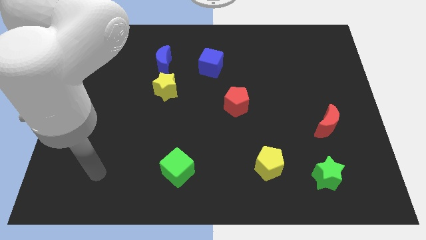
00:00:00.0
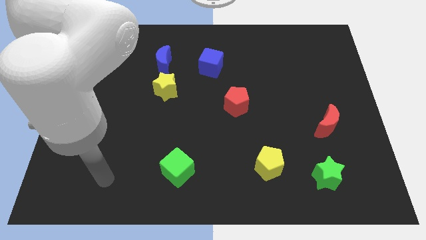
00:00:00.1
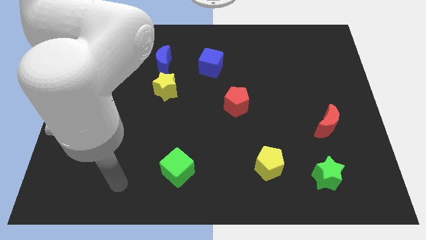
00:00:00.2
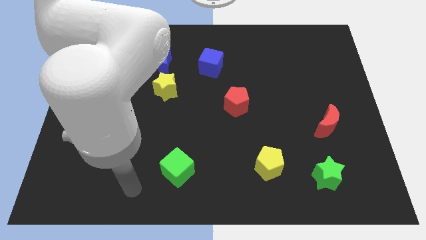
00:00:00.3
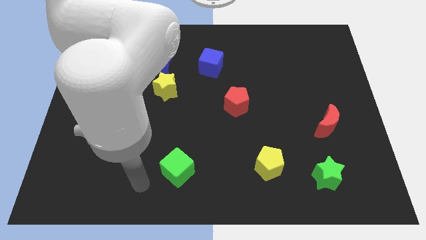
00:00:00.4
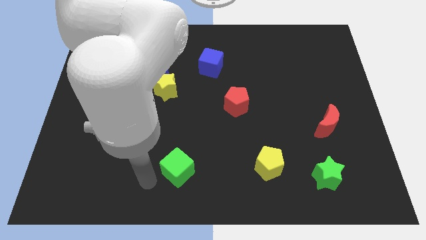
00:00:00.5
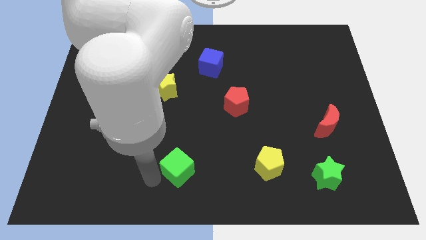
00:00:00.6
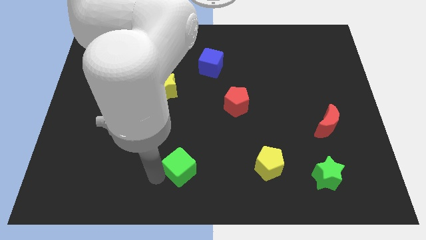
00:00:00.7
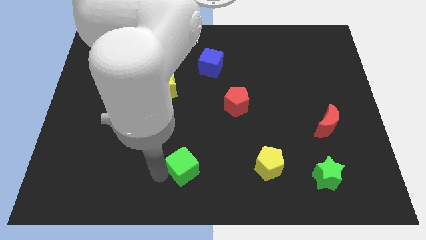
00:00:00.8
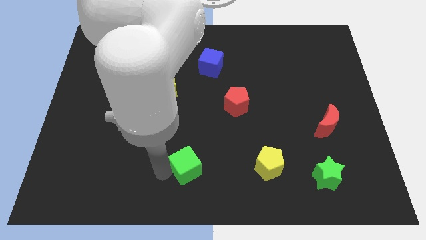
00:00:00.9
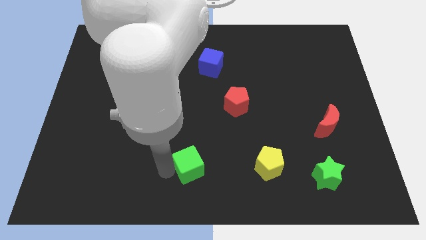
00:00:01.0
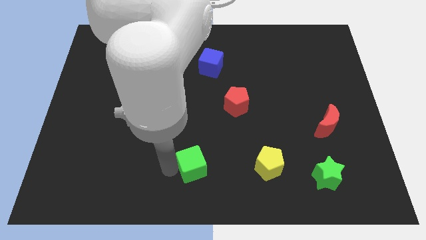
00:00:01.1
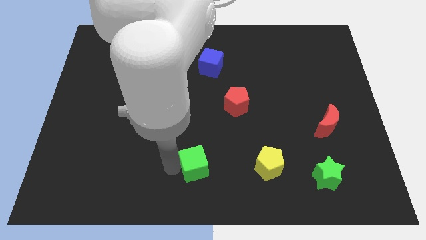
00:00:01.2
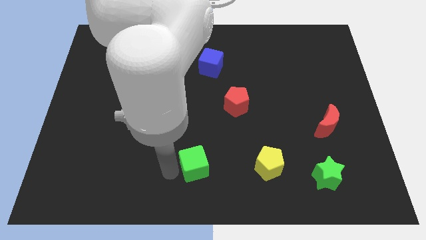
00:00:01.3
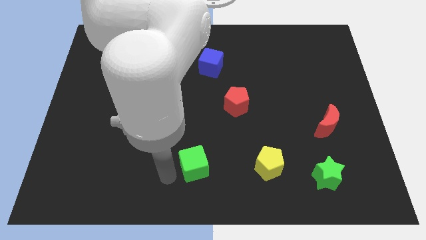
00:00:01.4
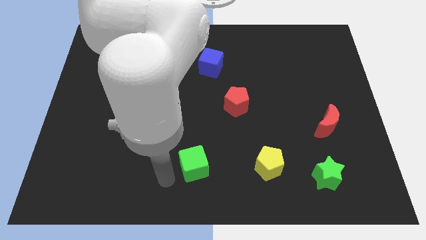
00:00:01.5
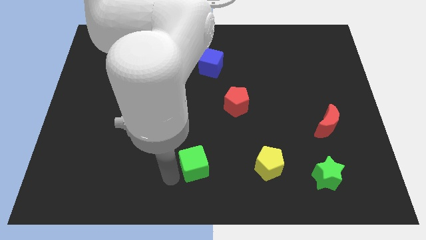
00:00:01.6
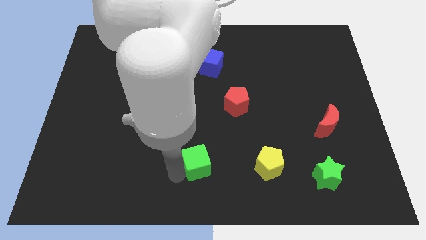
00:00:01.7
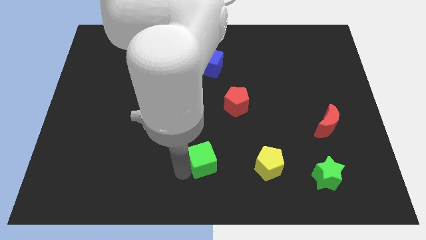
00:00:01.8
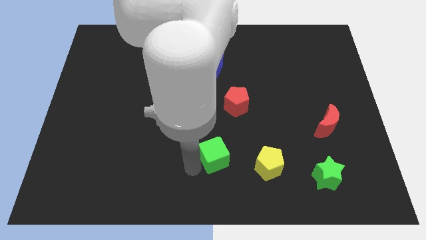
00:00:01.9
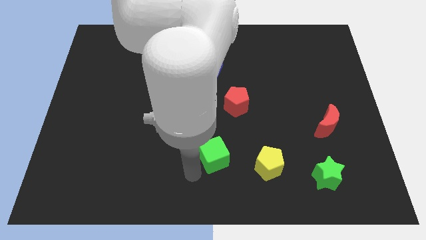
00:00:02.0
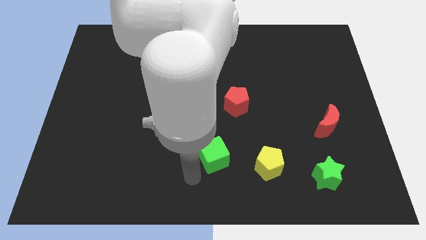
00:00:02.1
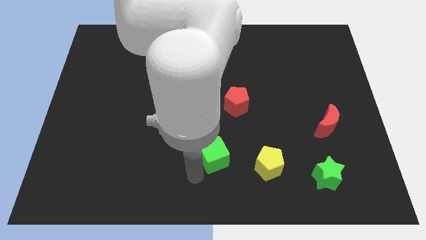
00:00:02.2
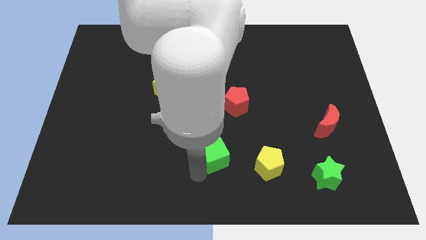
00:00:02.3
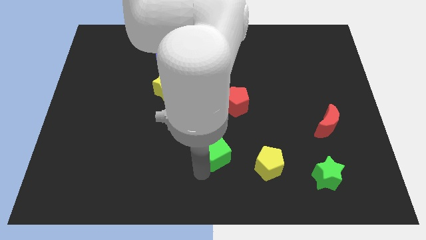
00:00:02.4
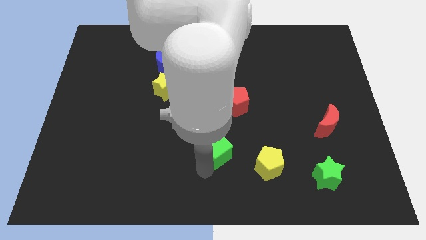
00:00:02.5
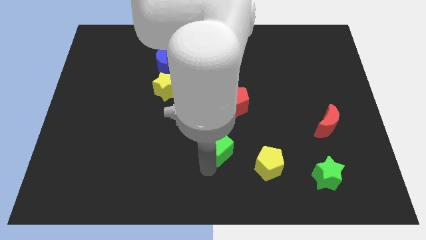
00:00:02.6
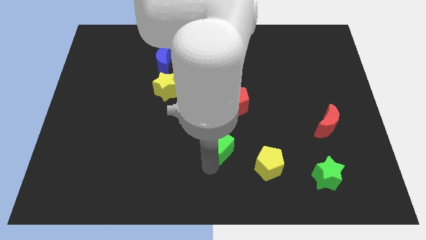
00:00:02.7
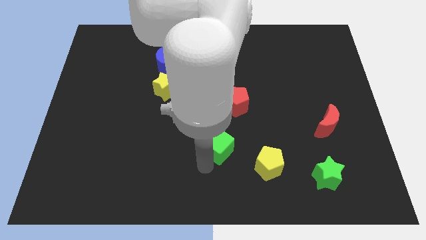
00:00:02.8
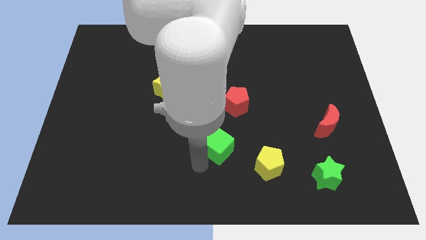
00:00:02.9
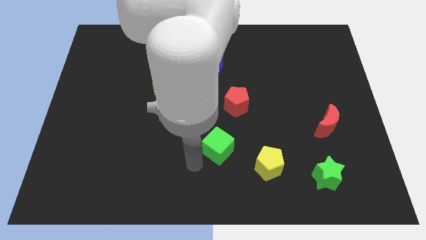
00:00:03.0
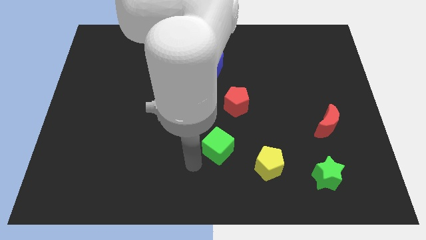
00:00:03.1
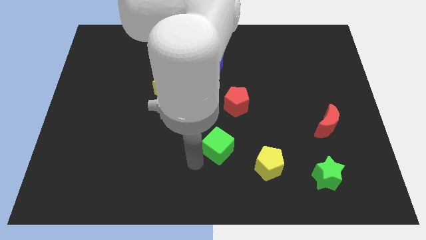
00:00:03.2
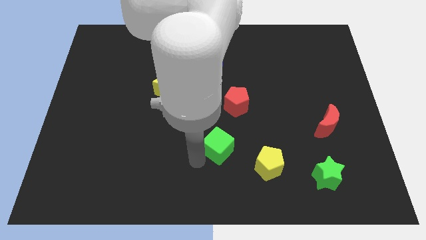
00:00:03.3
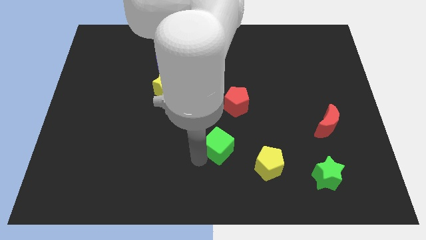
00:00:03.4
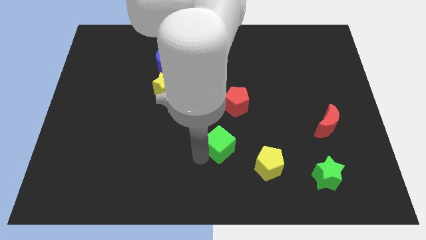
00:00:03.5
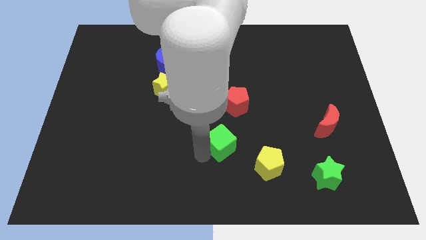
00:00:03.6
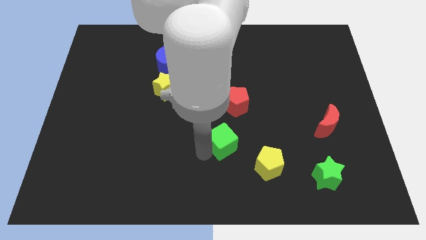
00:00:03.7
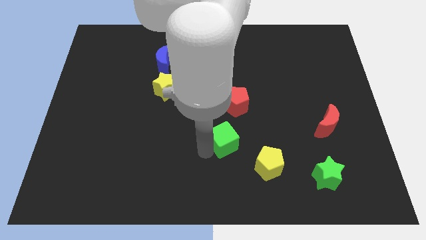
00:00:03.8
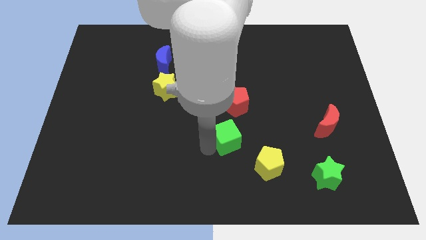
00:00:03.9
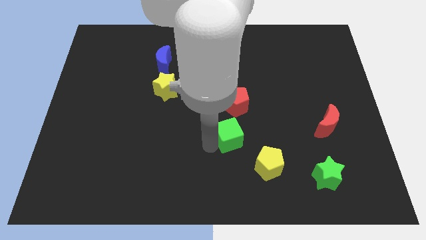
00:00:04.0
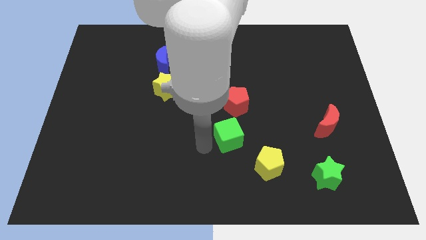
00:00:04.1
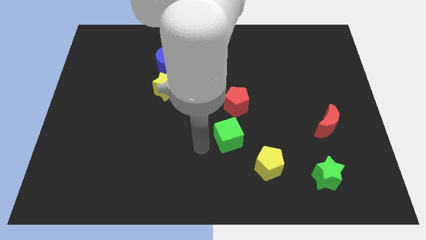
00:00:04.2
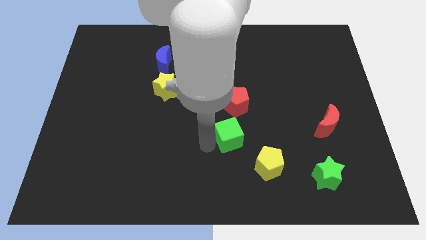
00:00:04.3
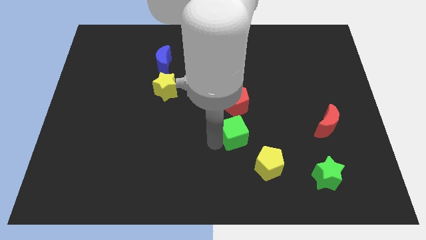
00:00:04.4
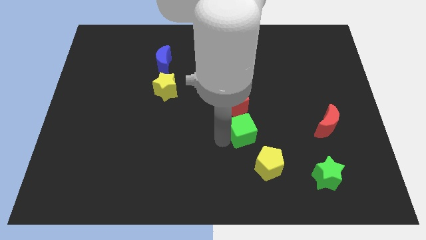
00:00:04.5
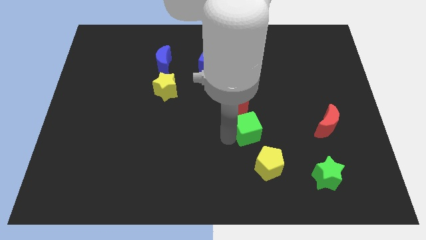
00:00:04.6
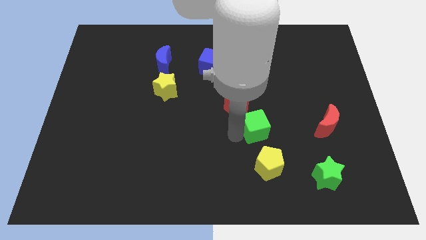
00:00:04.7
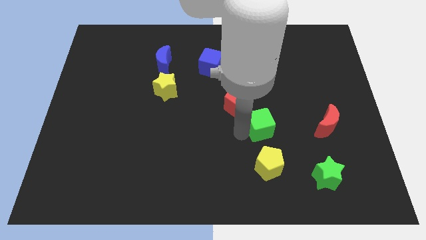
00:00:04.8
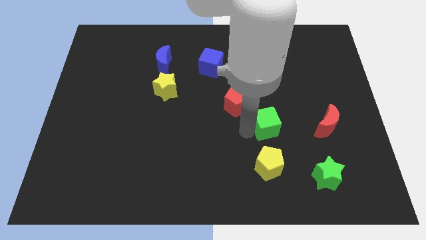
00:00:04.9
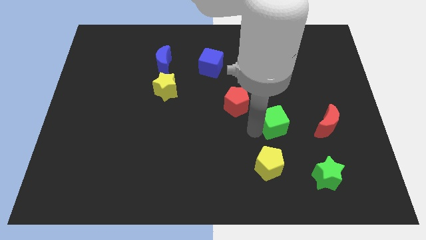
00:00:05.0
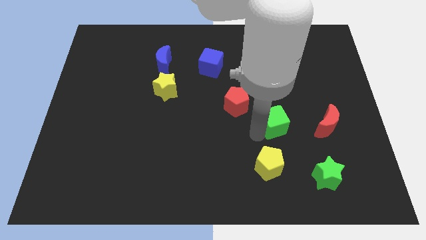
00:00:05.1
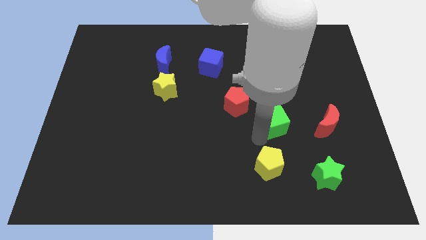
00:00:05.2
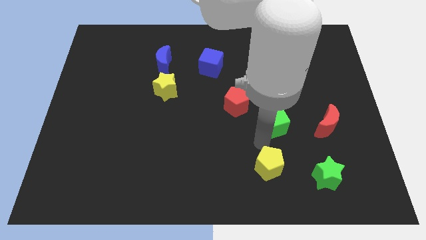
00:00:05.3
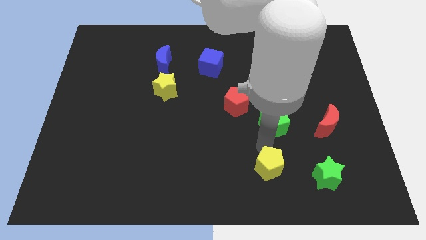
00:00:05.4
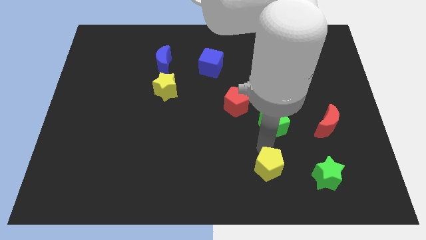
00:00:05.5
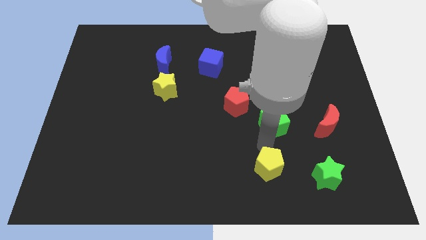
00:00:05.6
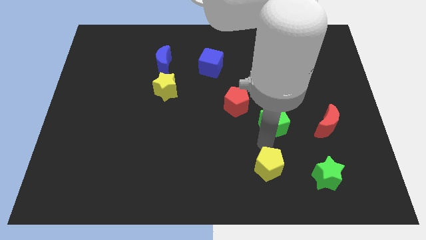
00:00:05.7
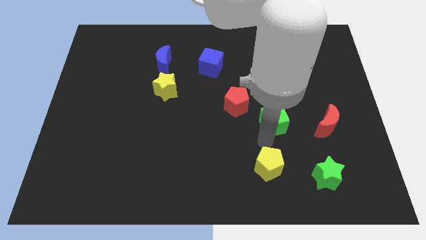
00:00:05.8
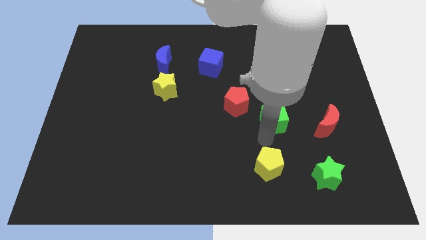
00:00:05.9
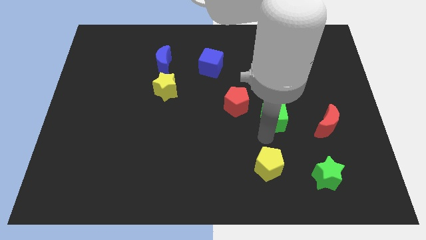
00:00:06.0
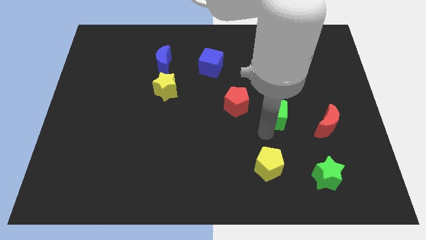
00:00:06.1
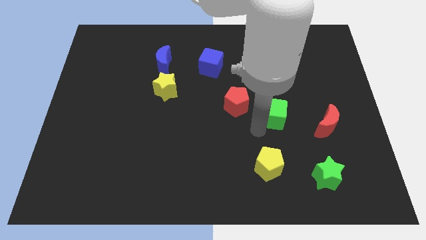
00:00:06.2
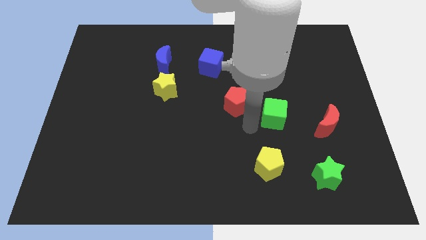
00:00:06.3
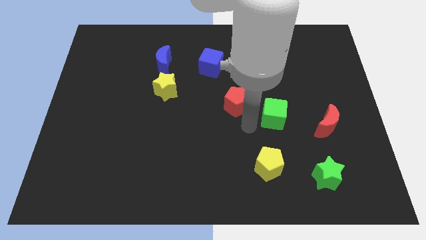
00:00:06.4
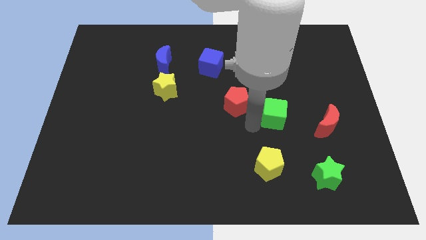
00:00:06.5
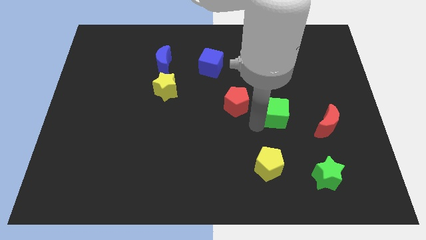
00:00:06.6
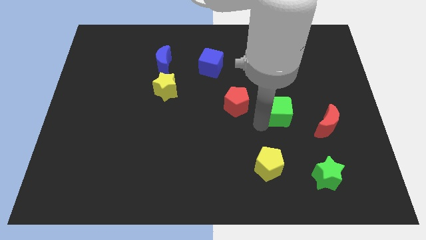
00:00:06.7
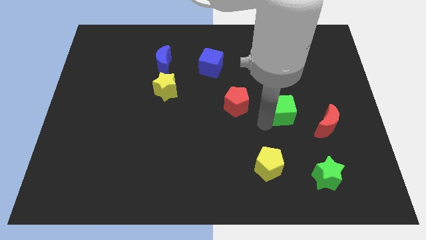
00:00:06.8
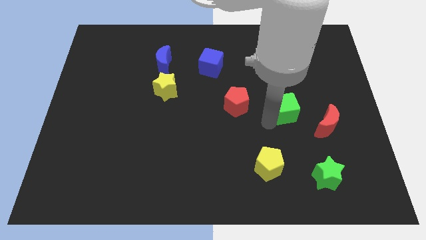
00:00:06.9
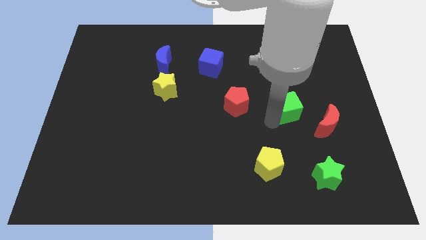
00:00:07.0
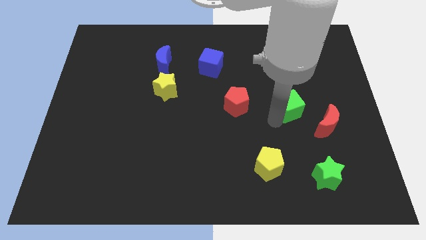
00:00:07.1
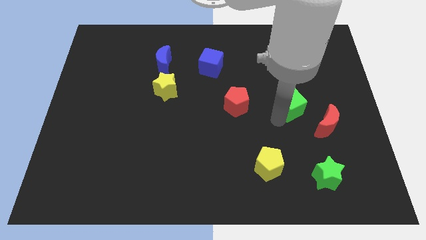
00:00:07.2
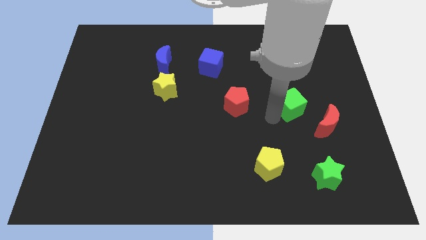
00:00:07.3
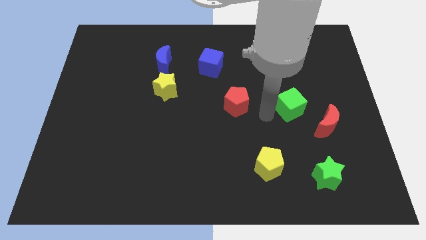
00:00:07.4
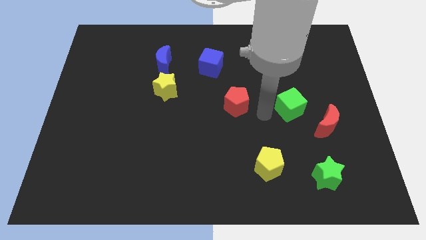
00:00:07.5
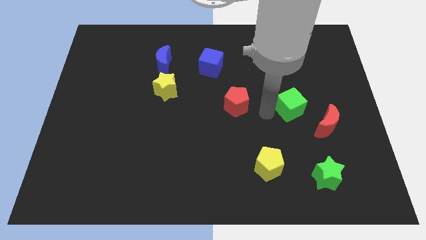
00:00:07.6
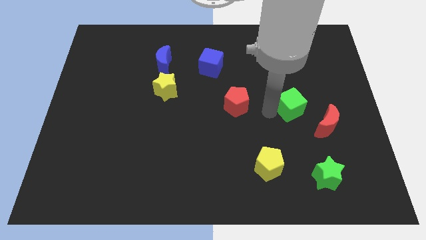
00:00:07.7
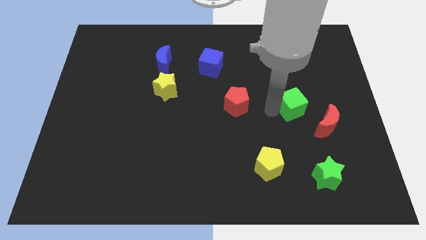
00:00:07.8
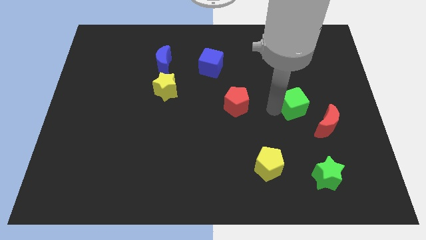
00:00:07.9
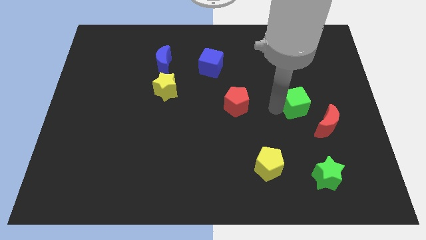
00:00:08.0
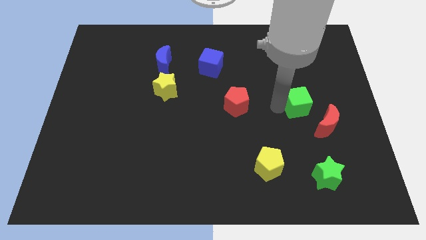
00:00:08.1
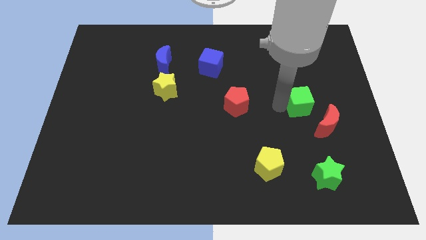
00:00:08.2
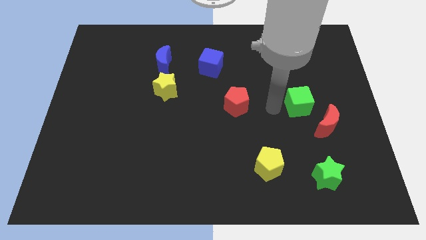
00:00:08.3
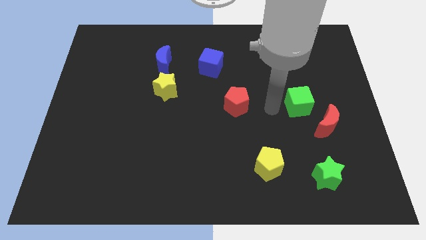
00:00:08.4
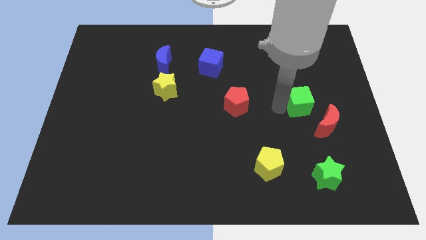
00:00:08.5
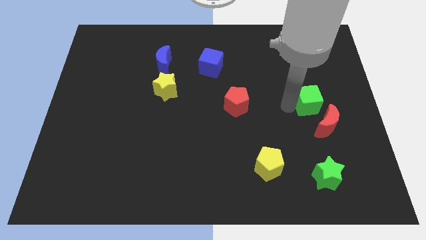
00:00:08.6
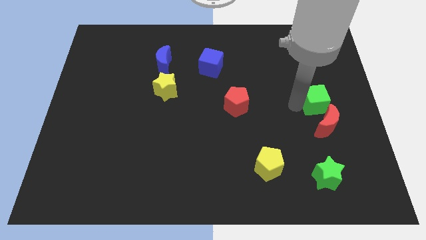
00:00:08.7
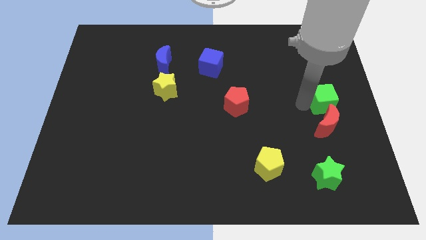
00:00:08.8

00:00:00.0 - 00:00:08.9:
move the green cube to the right side
